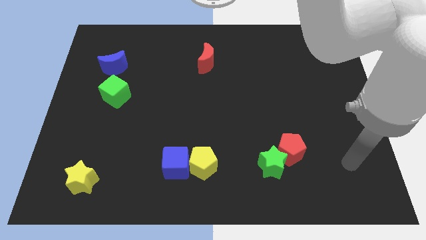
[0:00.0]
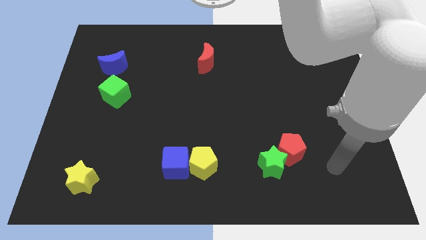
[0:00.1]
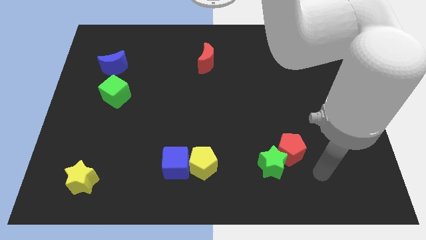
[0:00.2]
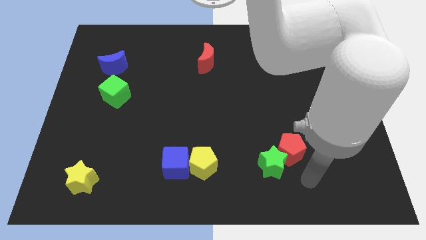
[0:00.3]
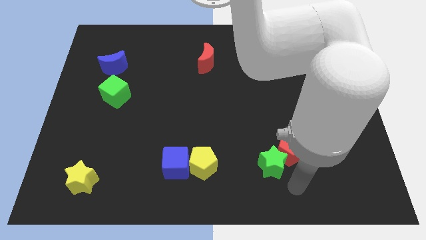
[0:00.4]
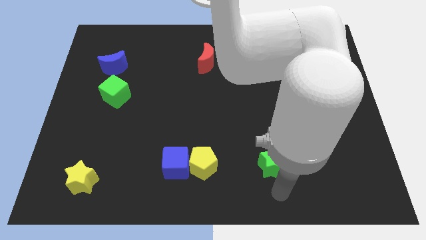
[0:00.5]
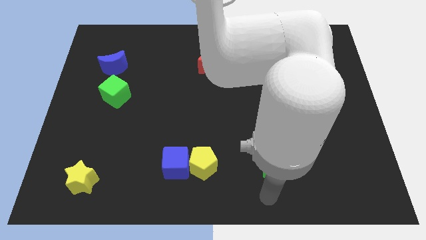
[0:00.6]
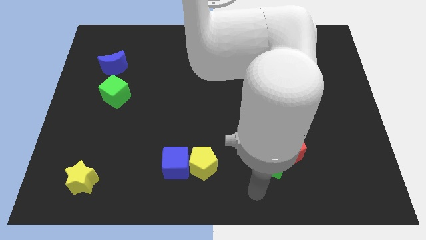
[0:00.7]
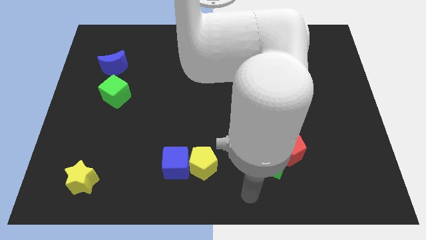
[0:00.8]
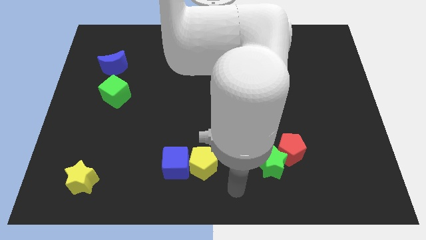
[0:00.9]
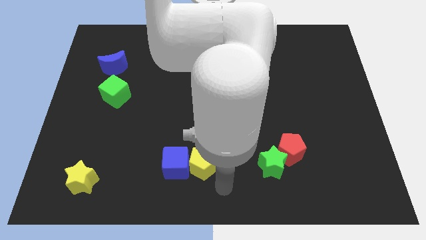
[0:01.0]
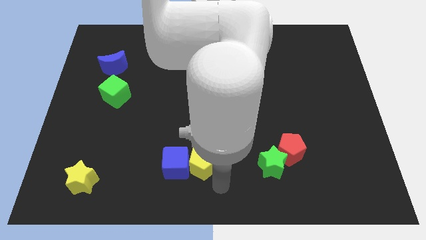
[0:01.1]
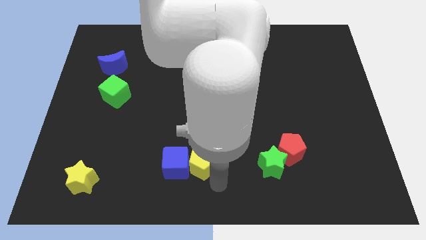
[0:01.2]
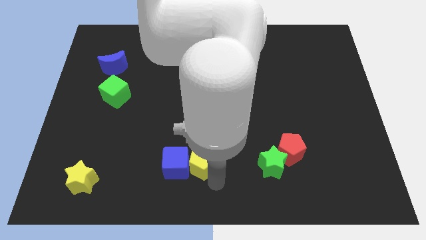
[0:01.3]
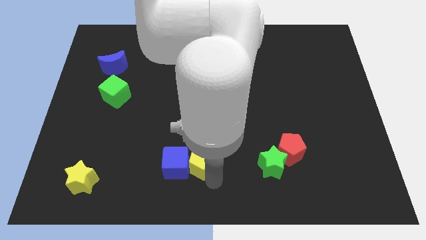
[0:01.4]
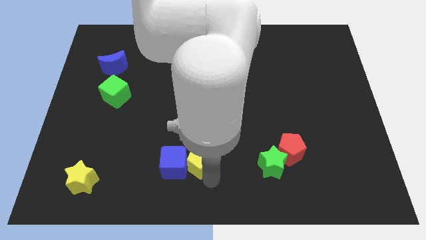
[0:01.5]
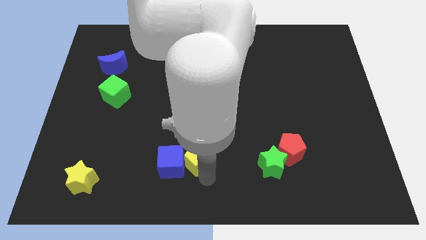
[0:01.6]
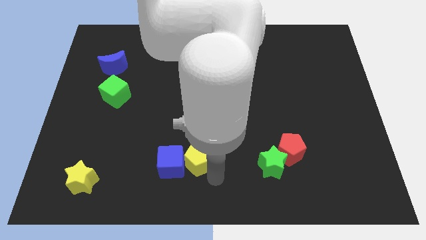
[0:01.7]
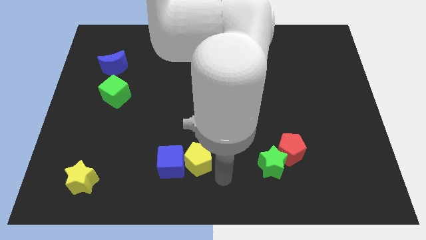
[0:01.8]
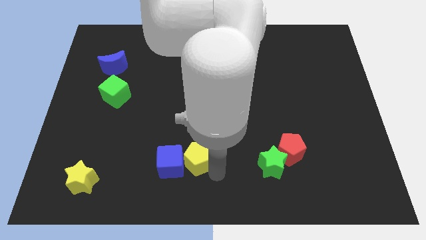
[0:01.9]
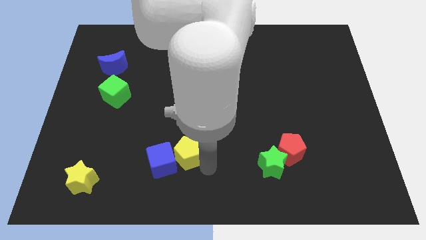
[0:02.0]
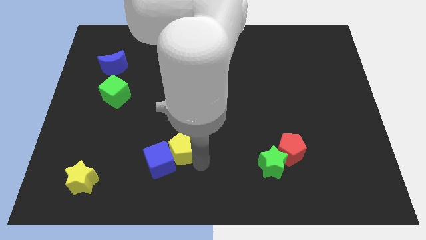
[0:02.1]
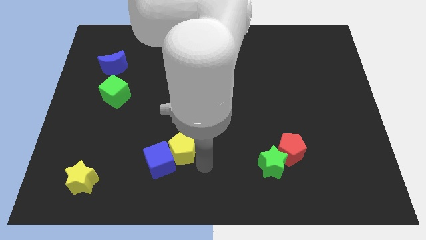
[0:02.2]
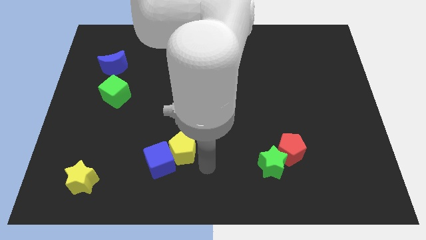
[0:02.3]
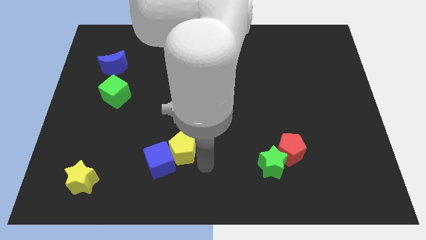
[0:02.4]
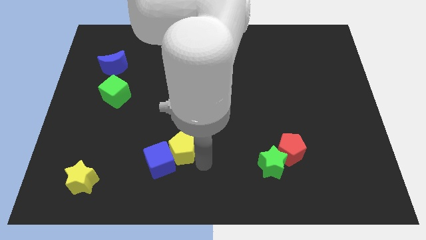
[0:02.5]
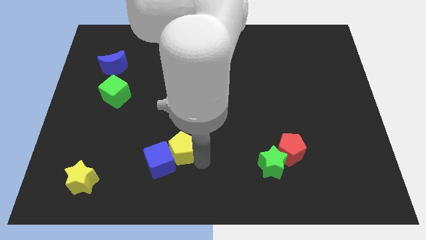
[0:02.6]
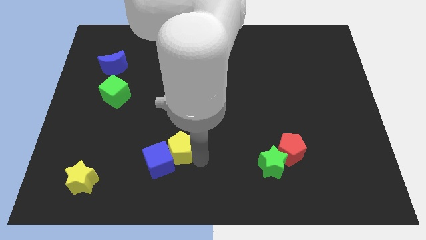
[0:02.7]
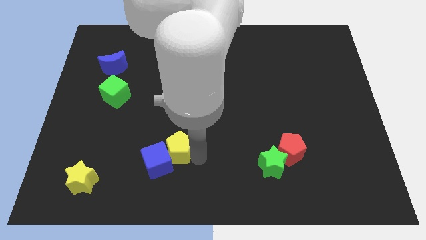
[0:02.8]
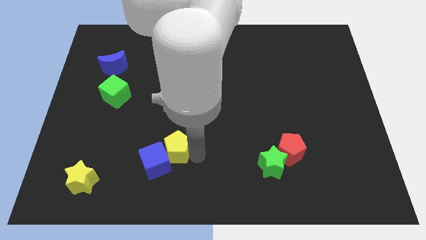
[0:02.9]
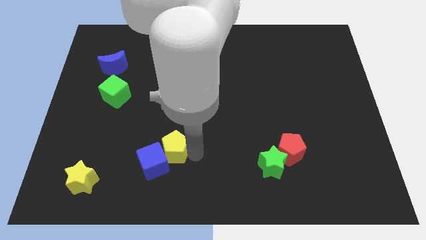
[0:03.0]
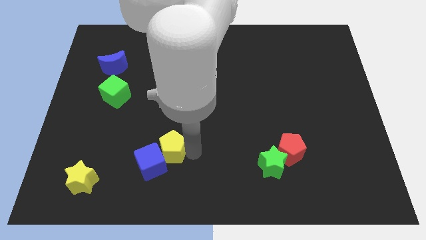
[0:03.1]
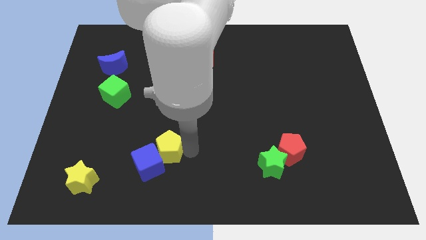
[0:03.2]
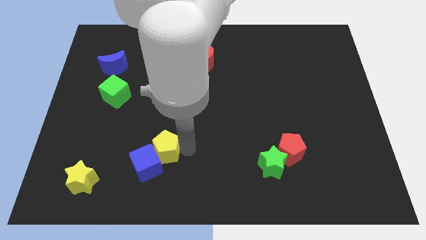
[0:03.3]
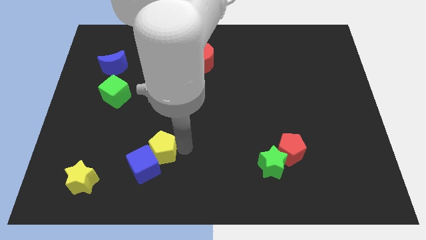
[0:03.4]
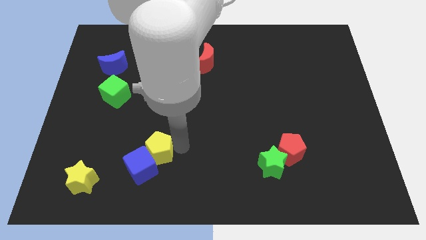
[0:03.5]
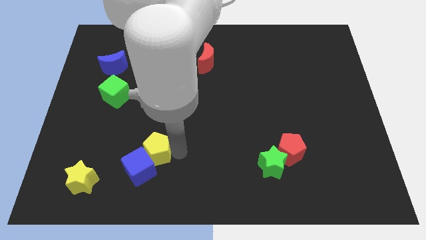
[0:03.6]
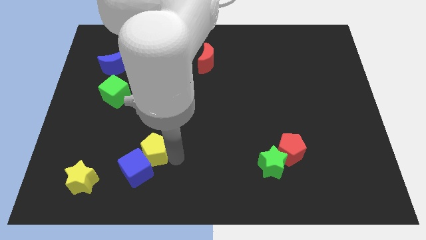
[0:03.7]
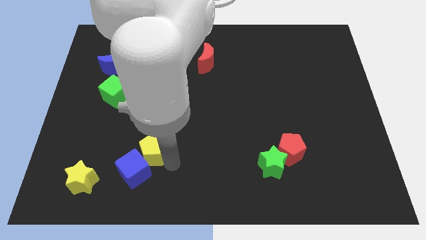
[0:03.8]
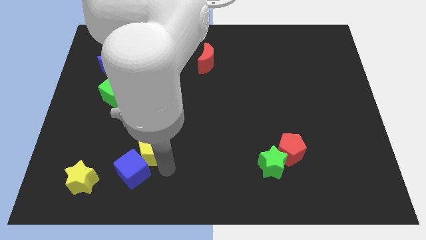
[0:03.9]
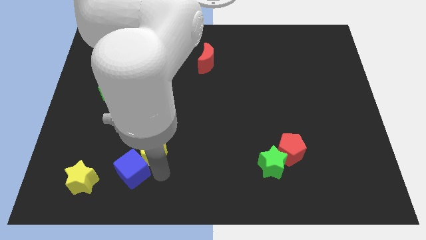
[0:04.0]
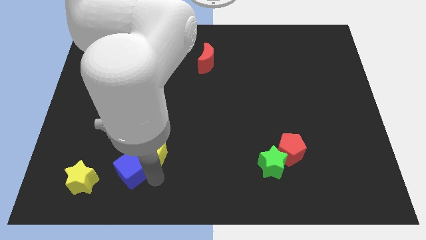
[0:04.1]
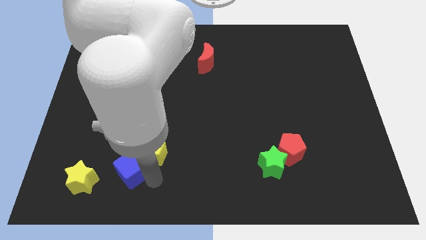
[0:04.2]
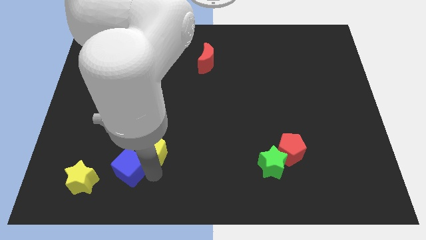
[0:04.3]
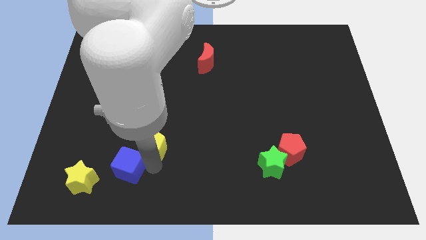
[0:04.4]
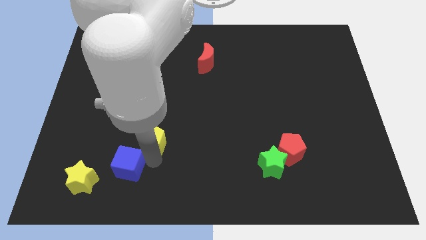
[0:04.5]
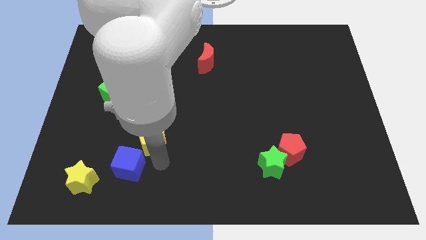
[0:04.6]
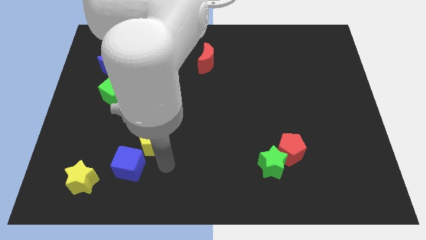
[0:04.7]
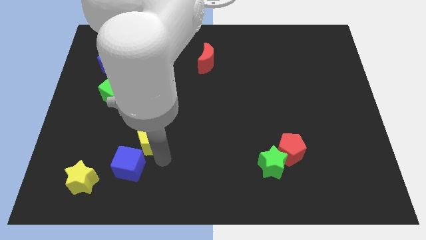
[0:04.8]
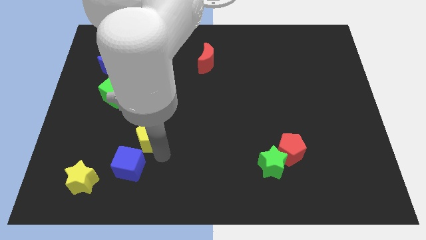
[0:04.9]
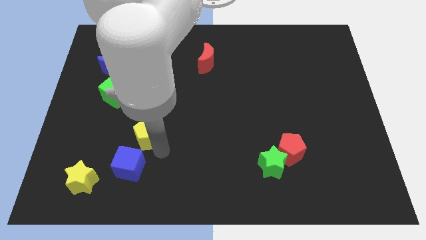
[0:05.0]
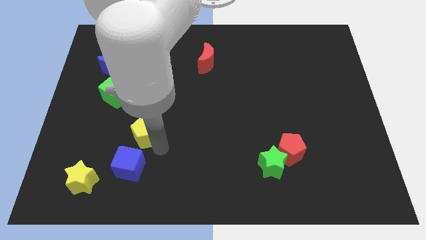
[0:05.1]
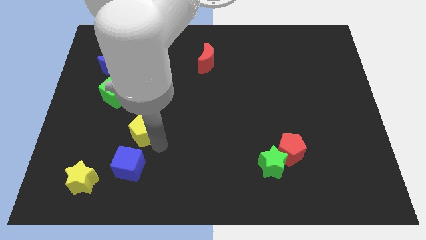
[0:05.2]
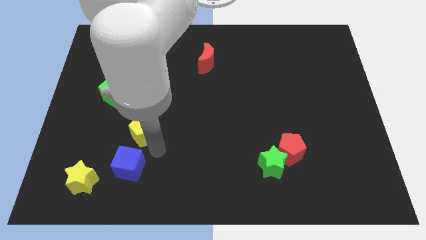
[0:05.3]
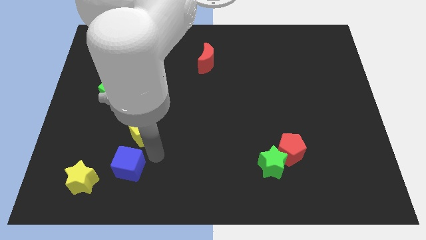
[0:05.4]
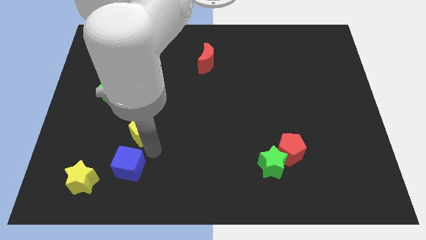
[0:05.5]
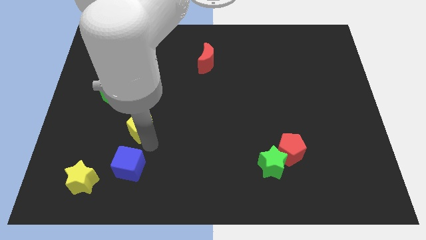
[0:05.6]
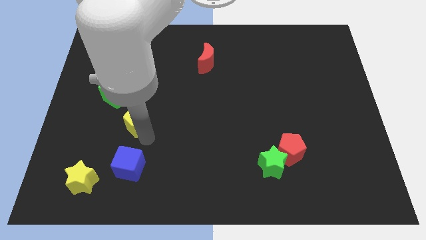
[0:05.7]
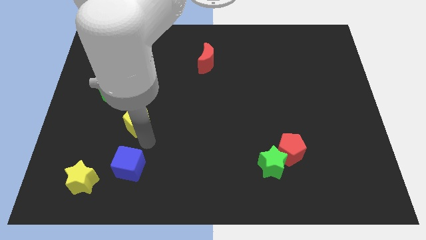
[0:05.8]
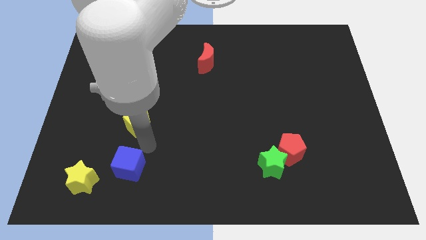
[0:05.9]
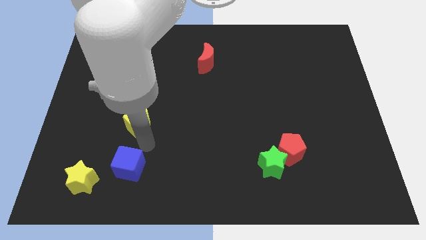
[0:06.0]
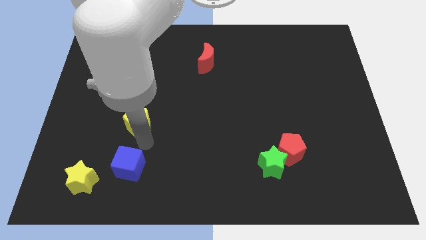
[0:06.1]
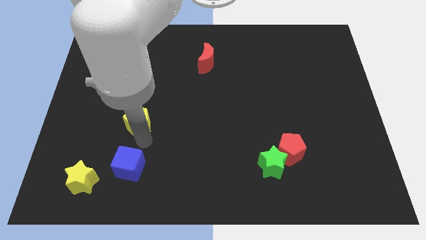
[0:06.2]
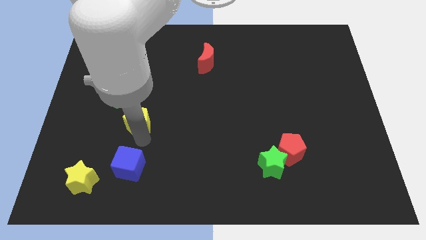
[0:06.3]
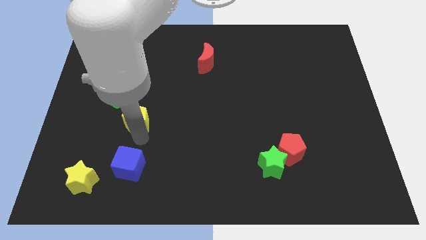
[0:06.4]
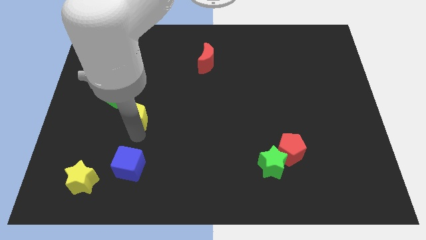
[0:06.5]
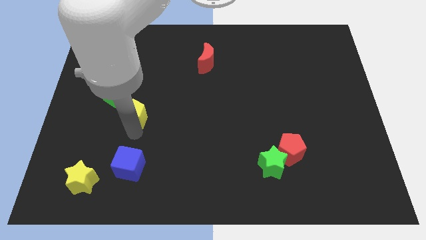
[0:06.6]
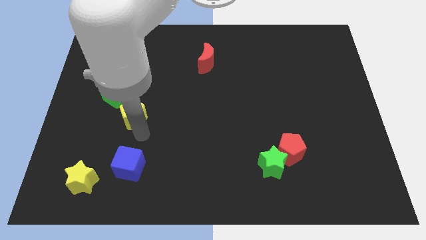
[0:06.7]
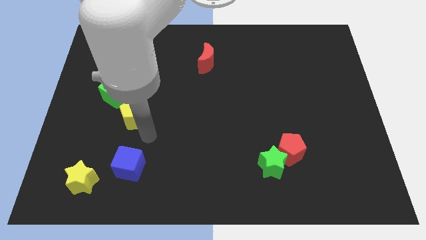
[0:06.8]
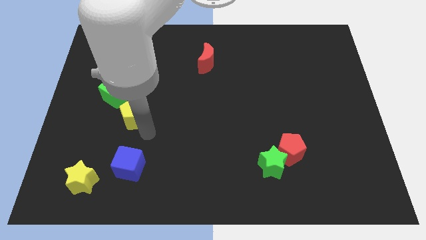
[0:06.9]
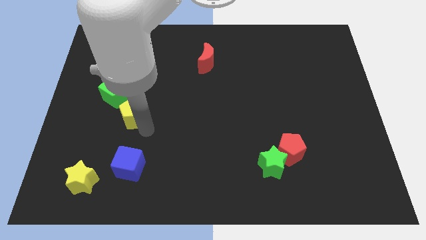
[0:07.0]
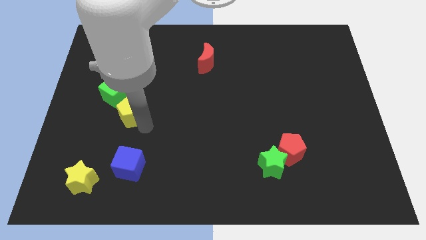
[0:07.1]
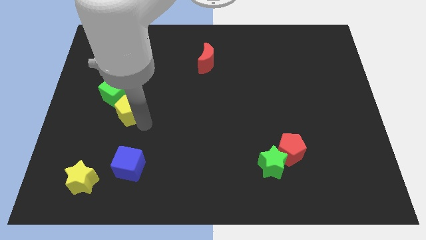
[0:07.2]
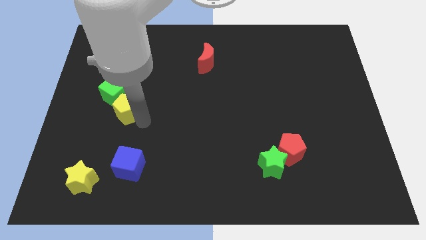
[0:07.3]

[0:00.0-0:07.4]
slide the yellow pentagon next to the green cube
